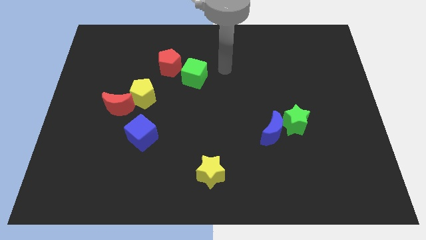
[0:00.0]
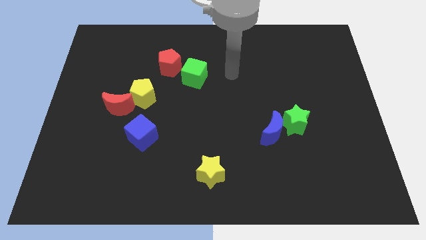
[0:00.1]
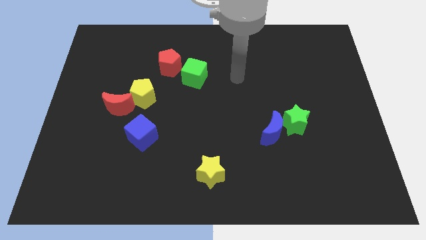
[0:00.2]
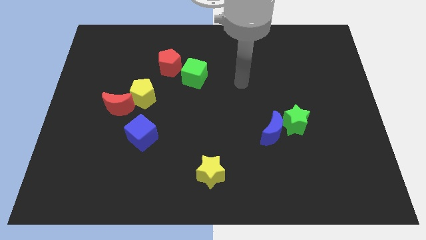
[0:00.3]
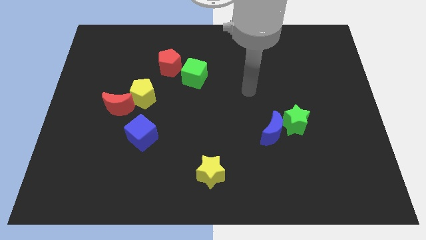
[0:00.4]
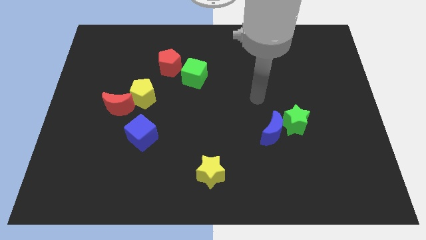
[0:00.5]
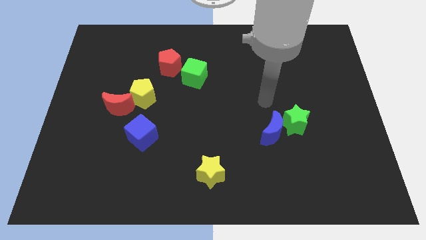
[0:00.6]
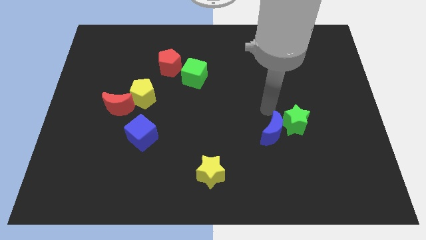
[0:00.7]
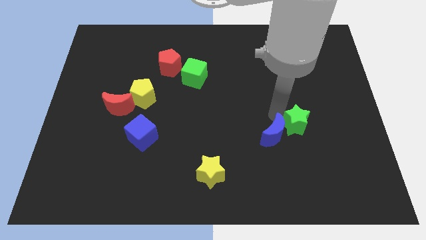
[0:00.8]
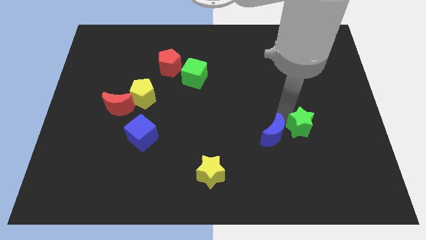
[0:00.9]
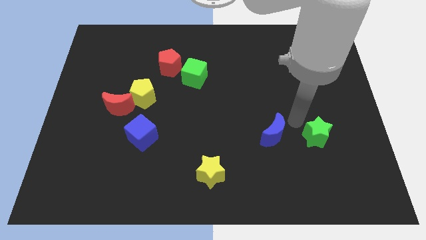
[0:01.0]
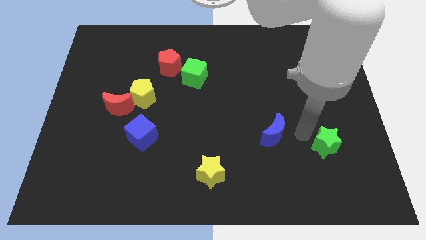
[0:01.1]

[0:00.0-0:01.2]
pull the blue moon apart from the green star

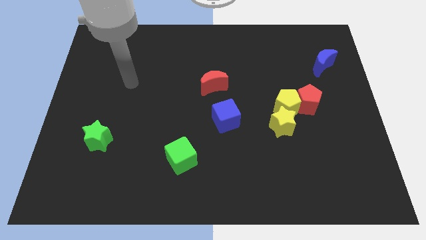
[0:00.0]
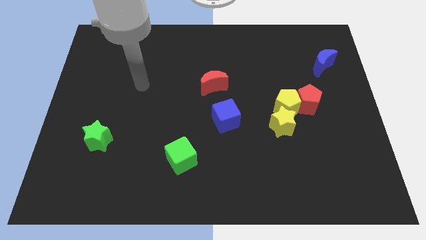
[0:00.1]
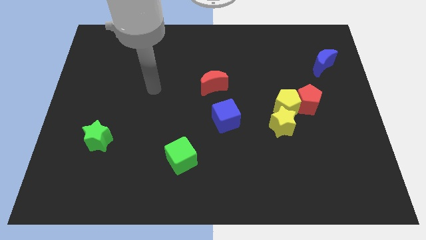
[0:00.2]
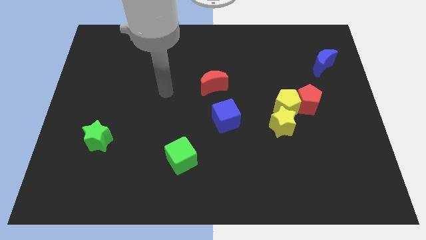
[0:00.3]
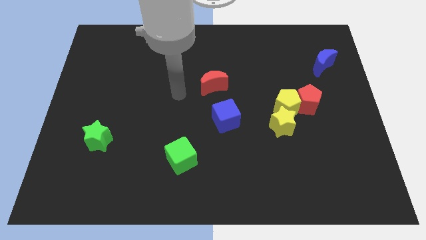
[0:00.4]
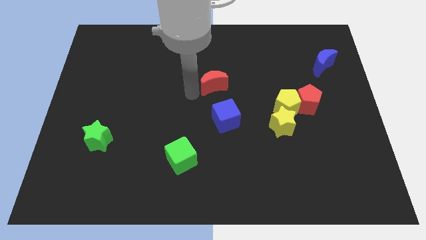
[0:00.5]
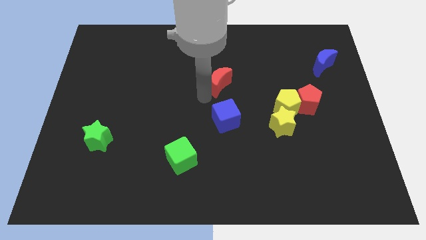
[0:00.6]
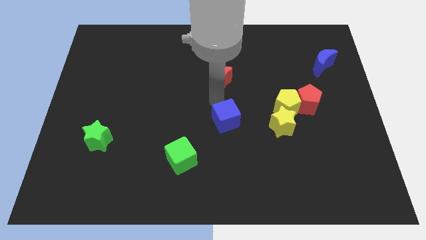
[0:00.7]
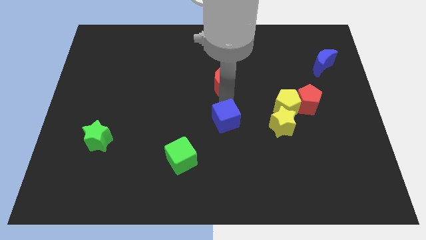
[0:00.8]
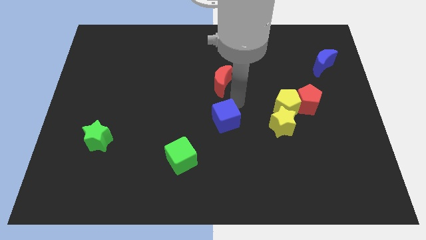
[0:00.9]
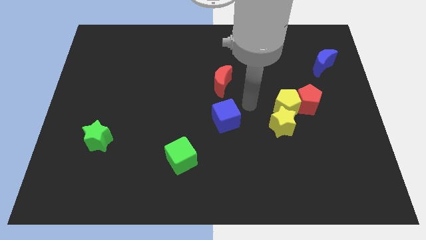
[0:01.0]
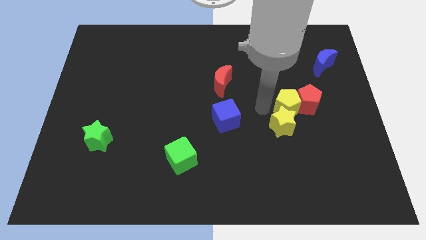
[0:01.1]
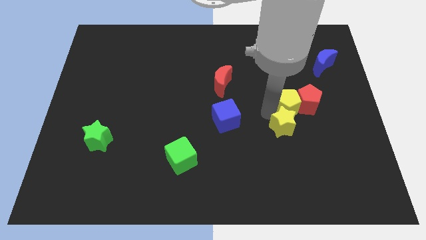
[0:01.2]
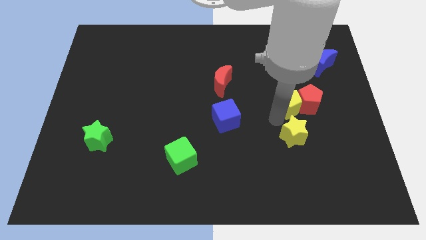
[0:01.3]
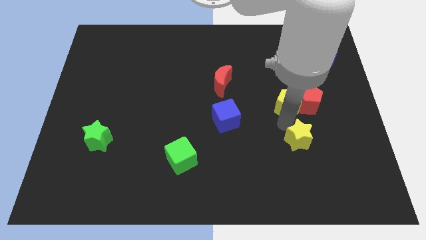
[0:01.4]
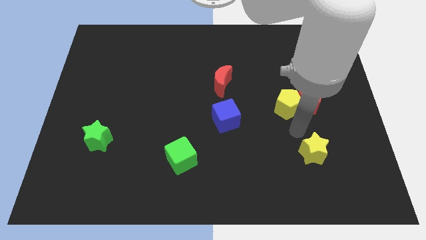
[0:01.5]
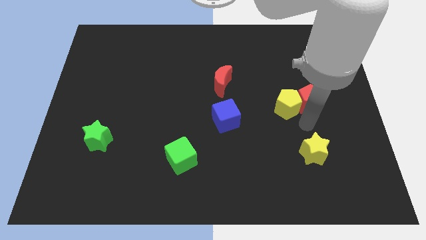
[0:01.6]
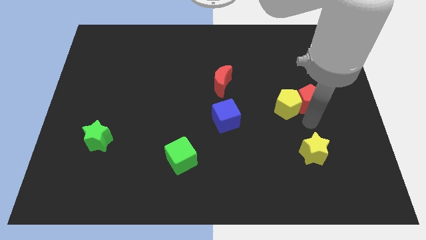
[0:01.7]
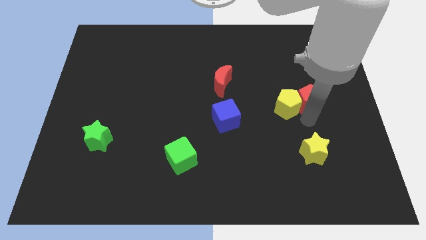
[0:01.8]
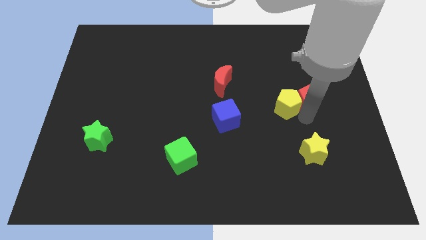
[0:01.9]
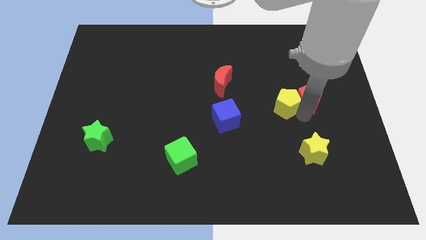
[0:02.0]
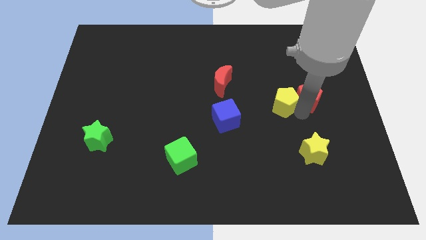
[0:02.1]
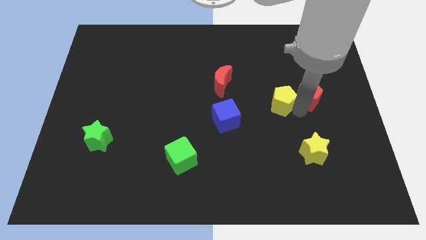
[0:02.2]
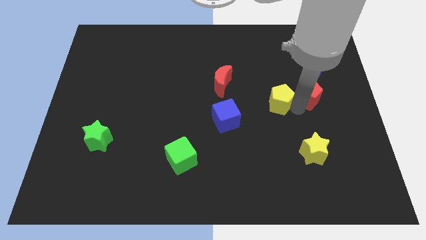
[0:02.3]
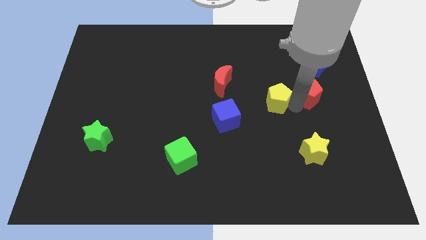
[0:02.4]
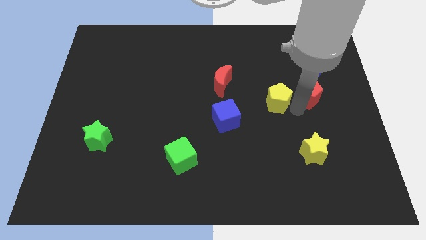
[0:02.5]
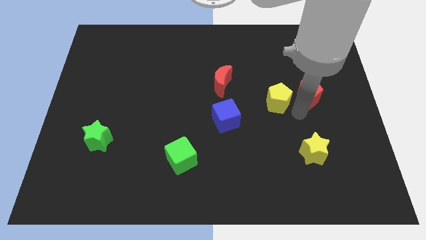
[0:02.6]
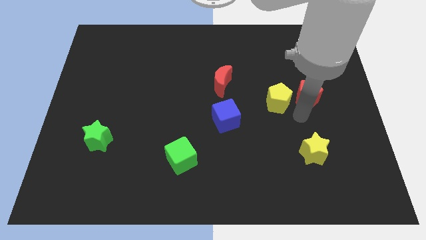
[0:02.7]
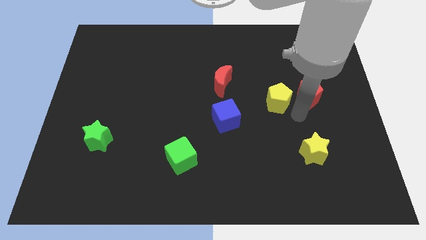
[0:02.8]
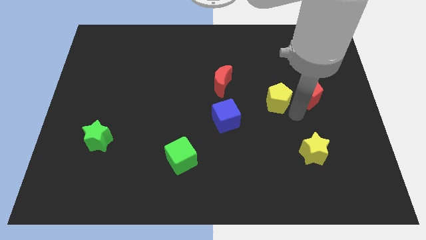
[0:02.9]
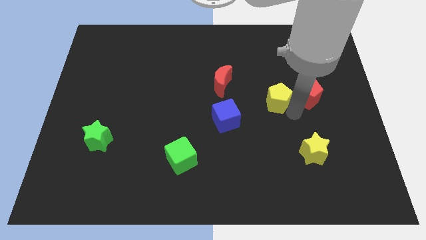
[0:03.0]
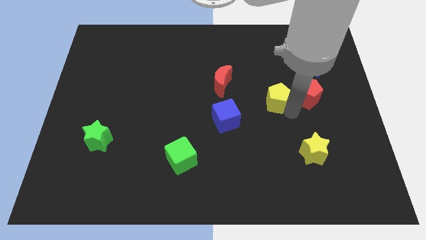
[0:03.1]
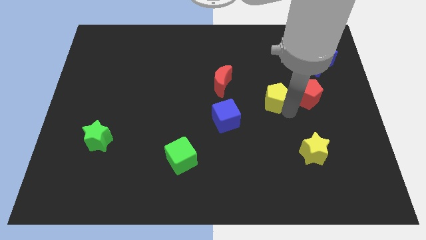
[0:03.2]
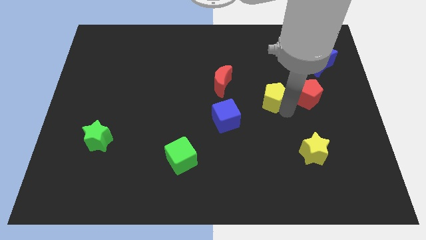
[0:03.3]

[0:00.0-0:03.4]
pull the yellow pentagon apart from the red pentagon and yellow star

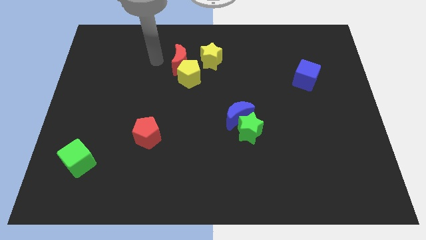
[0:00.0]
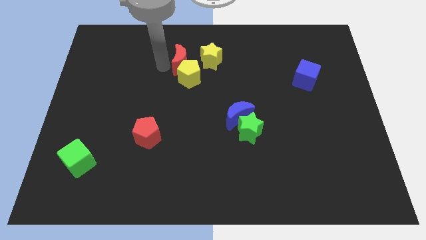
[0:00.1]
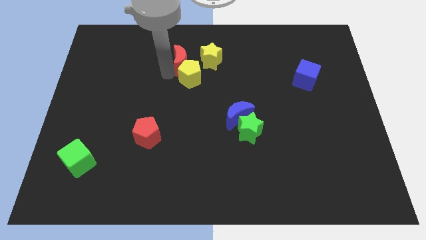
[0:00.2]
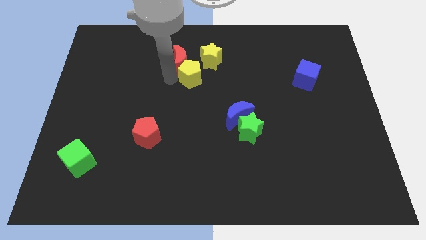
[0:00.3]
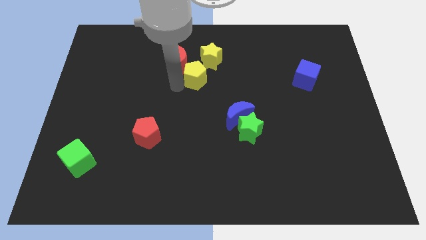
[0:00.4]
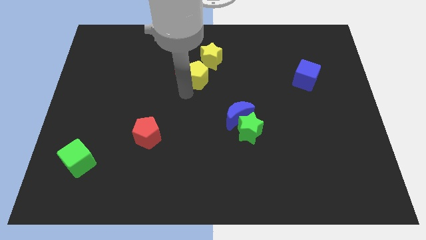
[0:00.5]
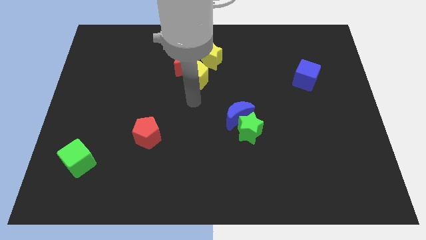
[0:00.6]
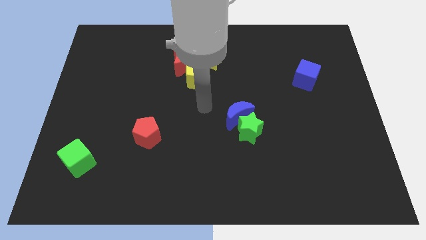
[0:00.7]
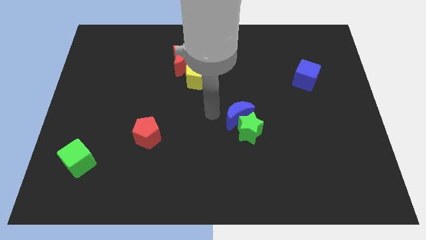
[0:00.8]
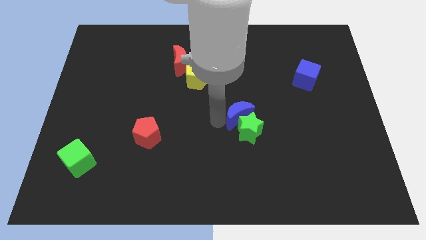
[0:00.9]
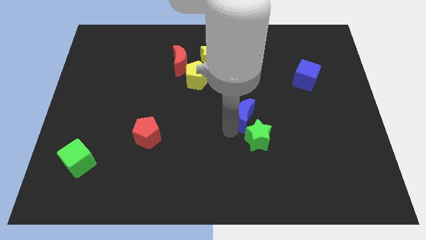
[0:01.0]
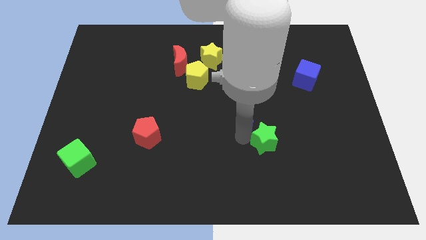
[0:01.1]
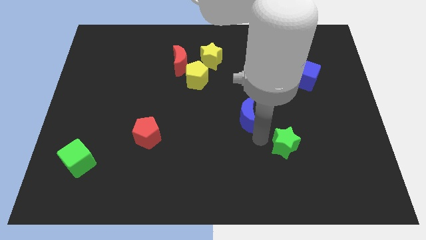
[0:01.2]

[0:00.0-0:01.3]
separate the blue moon from the green star

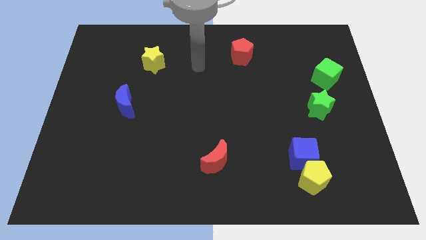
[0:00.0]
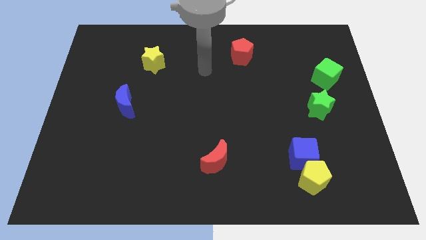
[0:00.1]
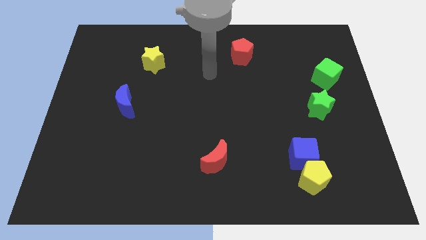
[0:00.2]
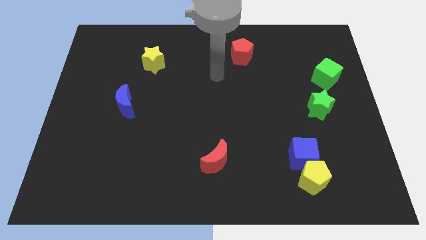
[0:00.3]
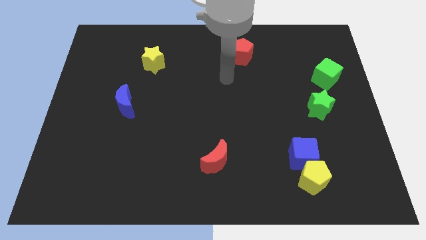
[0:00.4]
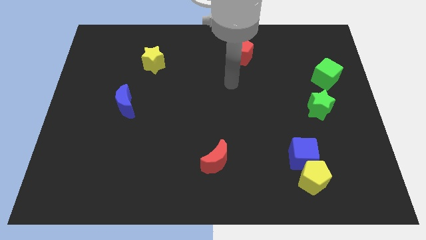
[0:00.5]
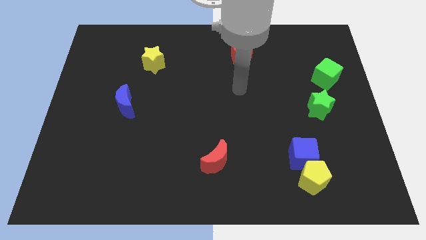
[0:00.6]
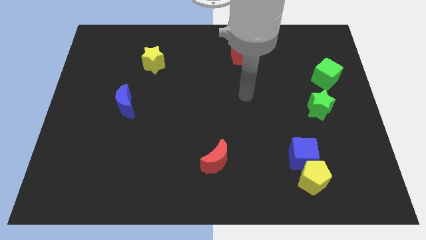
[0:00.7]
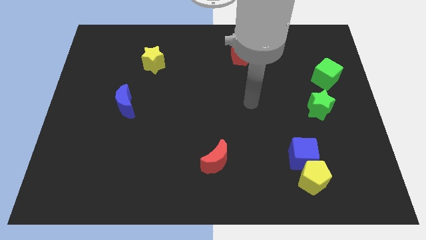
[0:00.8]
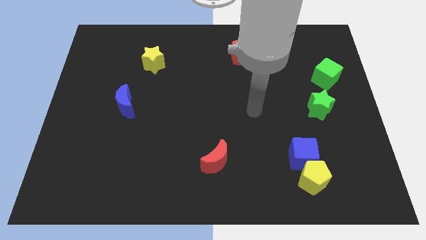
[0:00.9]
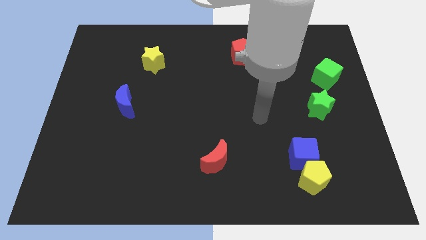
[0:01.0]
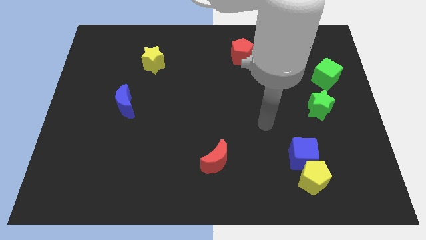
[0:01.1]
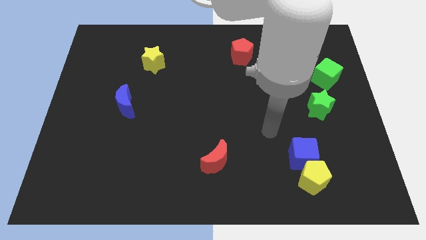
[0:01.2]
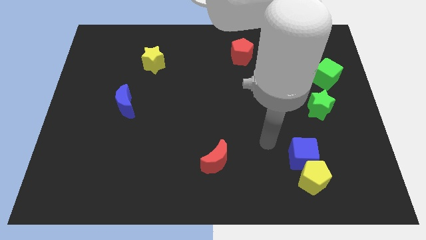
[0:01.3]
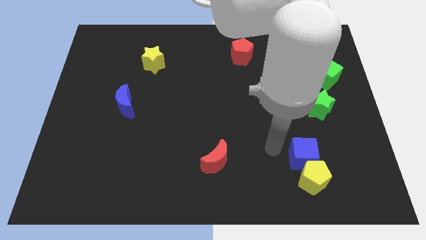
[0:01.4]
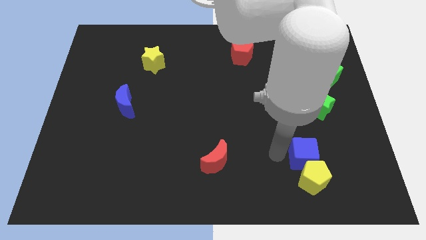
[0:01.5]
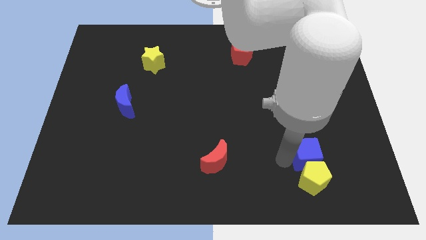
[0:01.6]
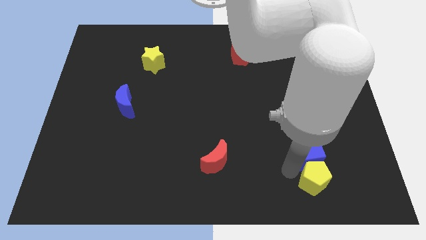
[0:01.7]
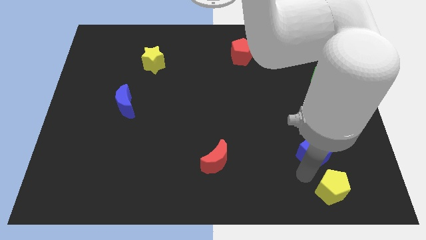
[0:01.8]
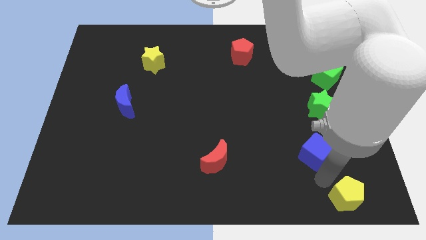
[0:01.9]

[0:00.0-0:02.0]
pull the blue cube apart from the yellow pentagon

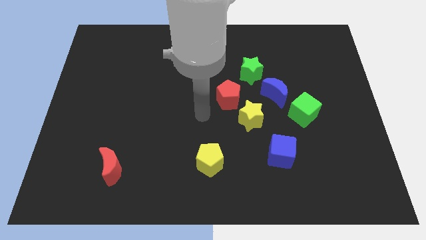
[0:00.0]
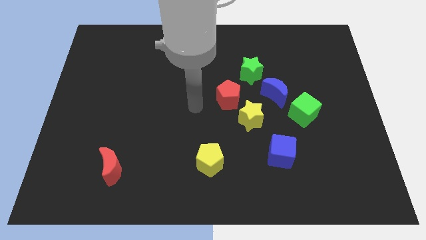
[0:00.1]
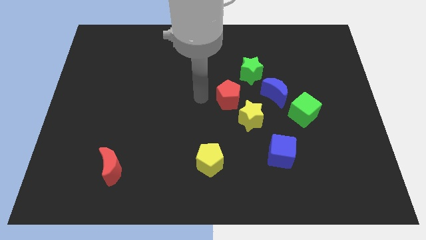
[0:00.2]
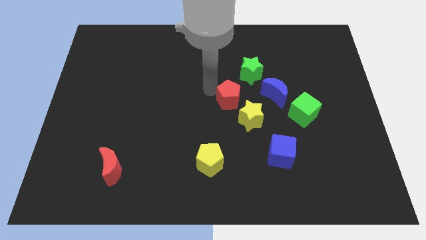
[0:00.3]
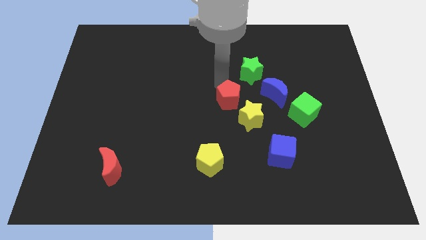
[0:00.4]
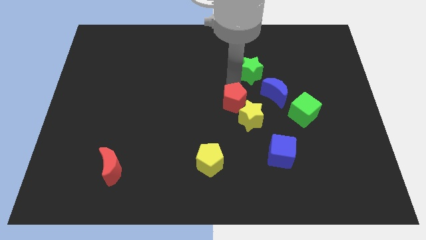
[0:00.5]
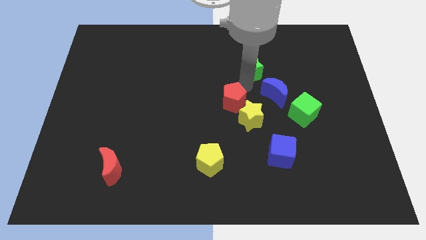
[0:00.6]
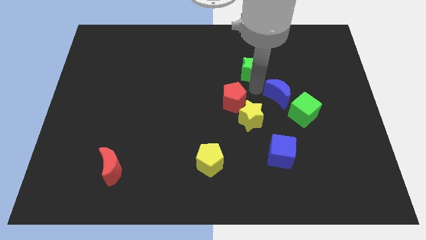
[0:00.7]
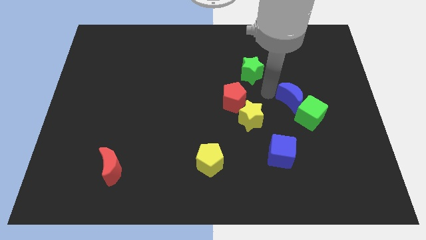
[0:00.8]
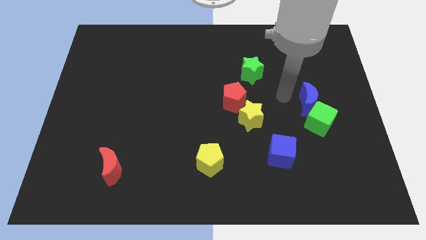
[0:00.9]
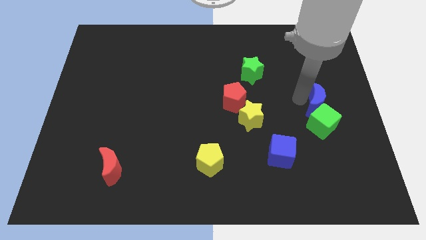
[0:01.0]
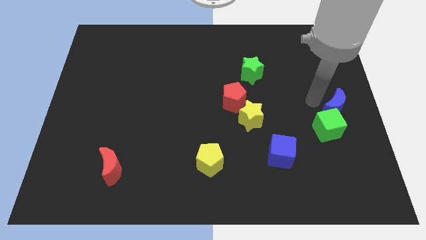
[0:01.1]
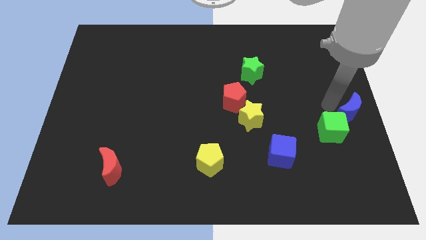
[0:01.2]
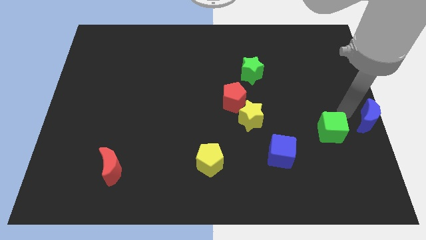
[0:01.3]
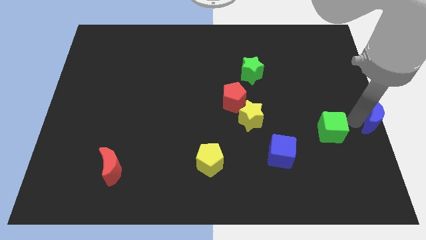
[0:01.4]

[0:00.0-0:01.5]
pull the green cube apart from the blue moon
